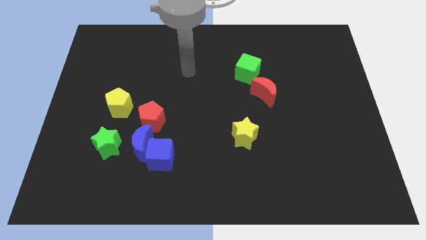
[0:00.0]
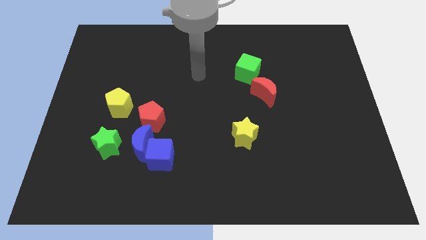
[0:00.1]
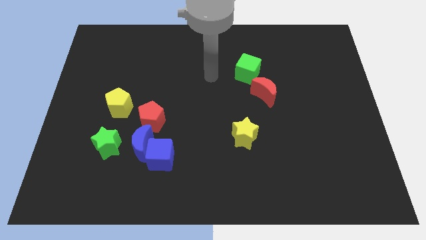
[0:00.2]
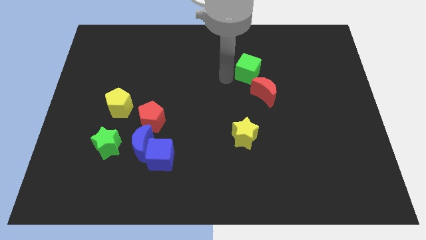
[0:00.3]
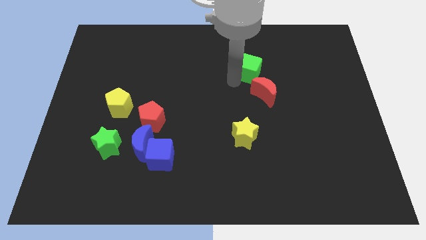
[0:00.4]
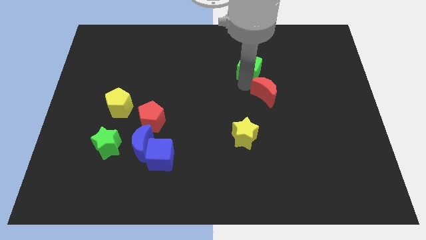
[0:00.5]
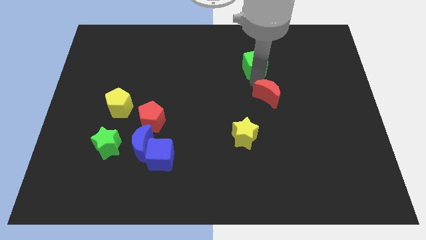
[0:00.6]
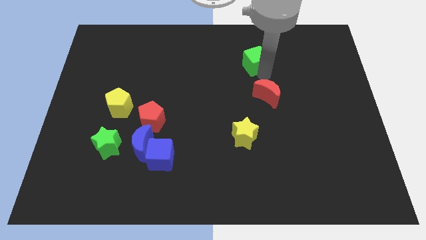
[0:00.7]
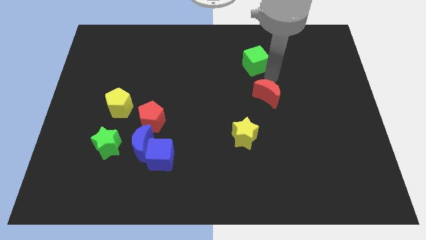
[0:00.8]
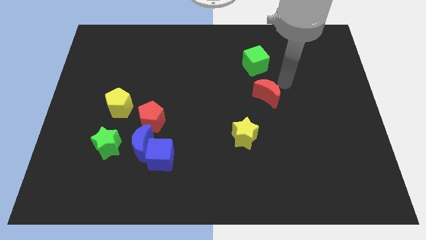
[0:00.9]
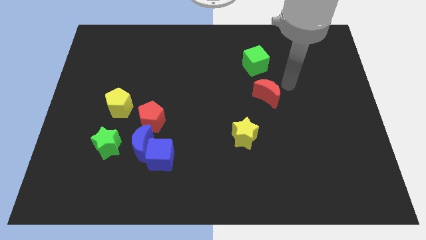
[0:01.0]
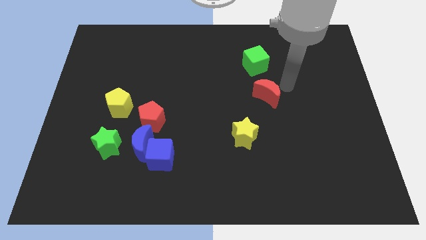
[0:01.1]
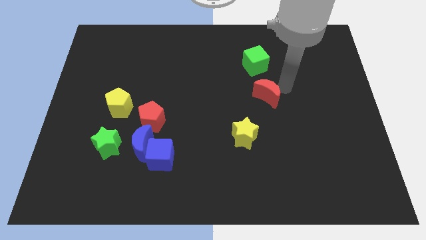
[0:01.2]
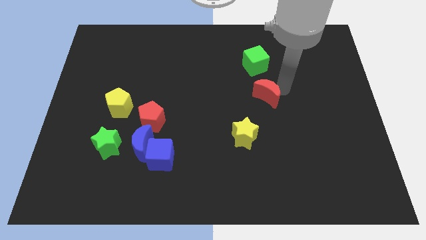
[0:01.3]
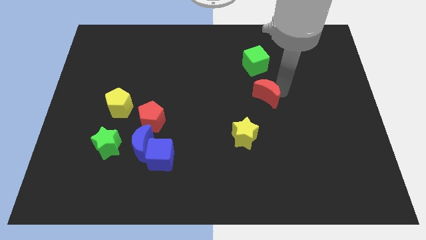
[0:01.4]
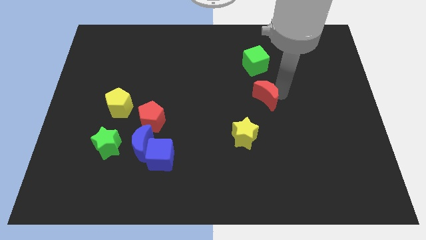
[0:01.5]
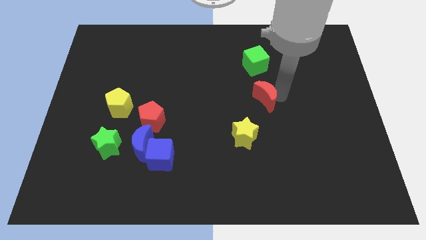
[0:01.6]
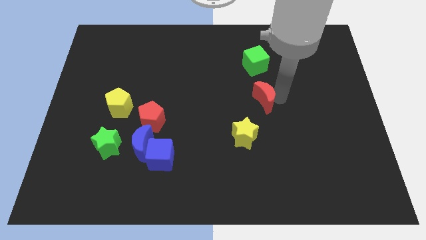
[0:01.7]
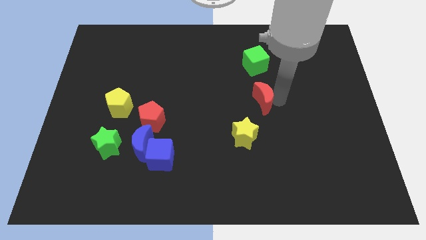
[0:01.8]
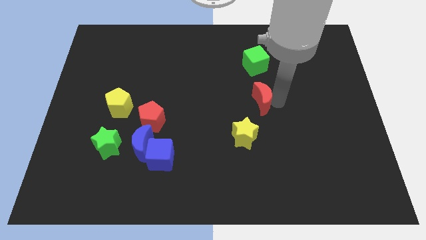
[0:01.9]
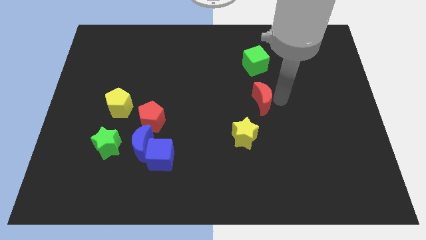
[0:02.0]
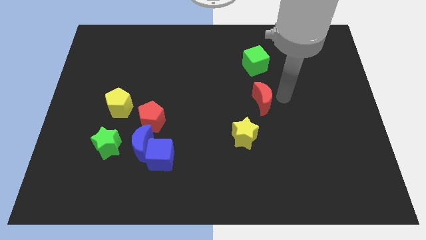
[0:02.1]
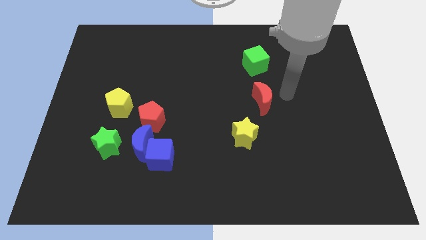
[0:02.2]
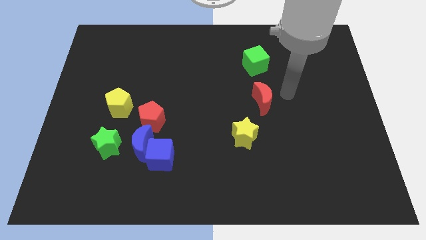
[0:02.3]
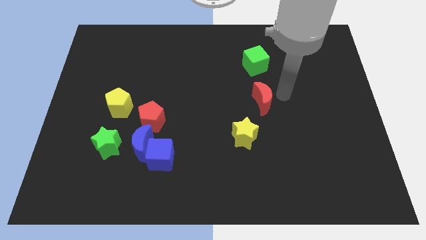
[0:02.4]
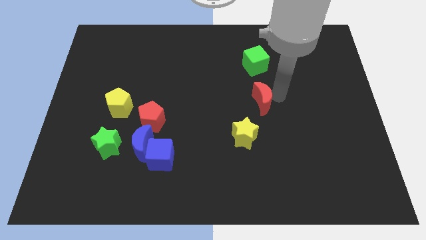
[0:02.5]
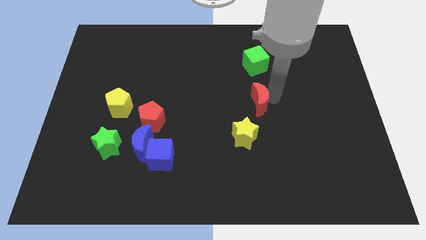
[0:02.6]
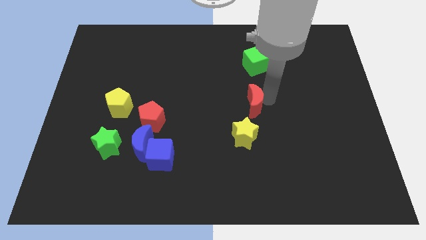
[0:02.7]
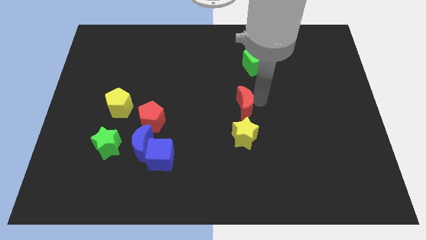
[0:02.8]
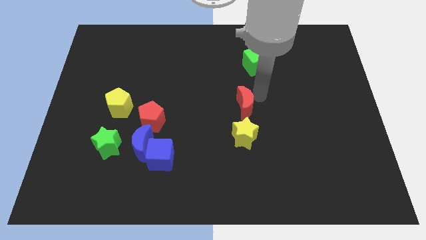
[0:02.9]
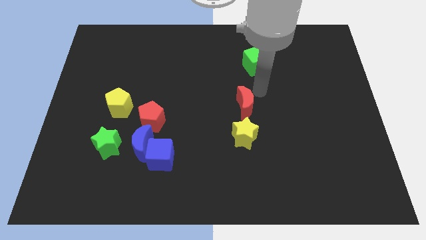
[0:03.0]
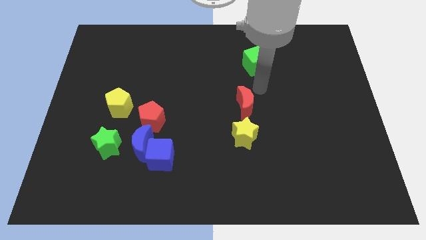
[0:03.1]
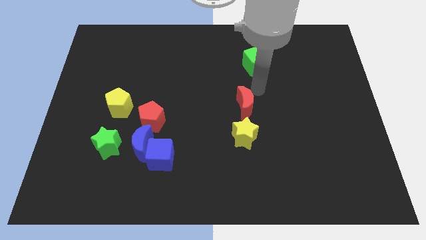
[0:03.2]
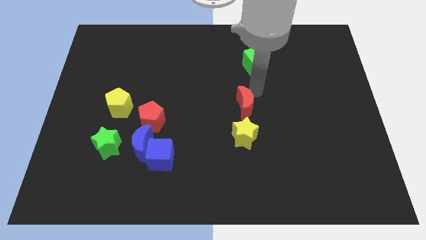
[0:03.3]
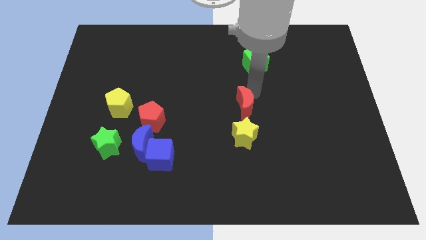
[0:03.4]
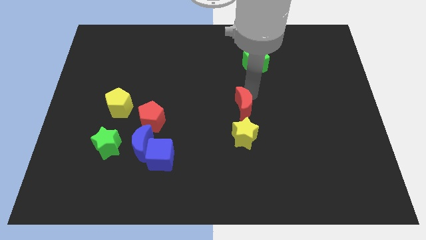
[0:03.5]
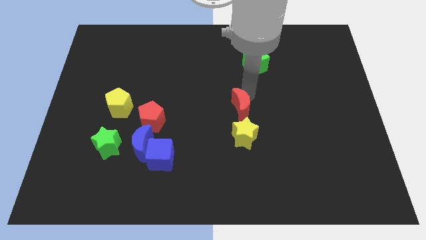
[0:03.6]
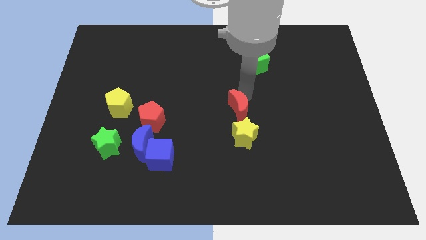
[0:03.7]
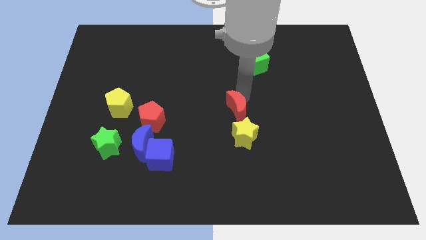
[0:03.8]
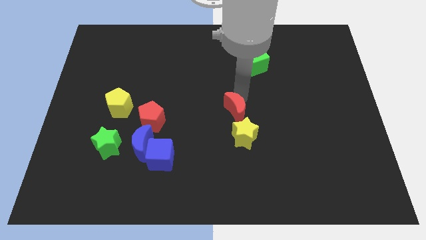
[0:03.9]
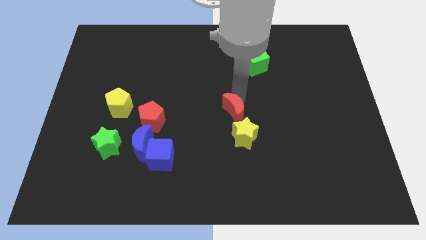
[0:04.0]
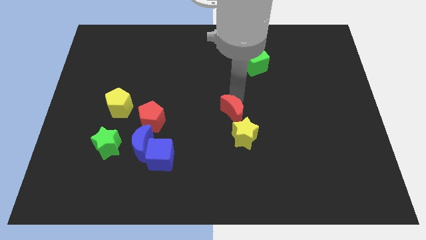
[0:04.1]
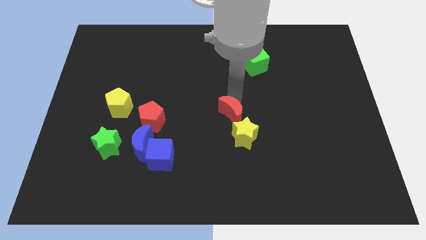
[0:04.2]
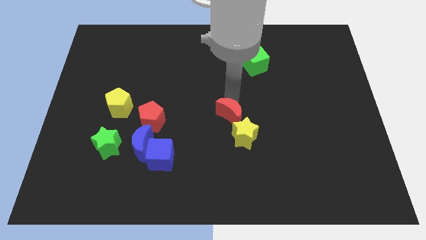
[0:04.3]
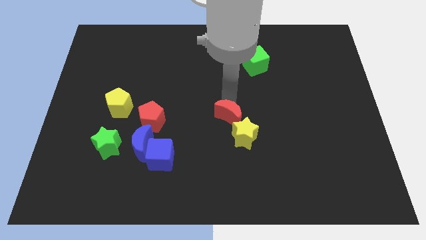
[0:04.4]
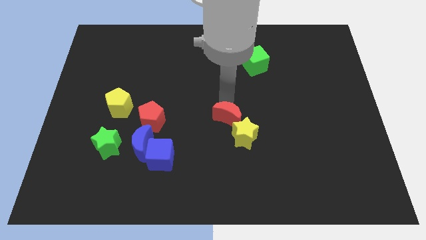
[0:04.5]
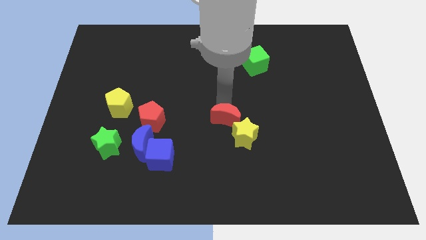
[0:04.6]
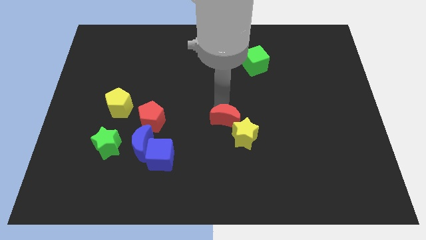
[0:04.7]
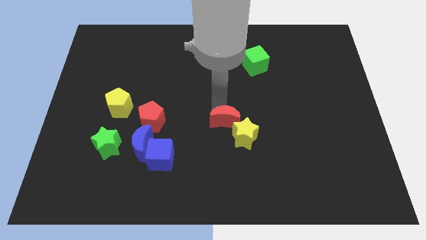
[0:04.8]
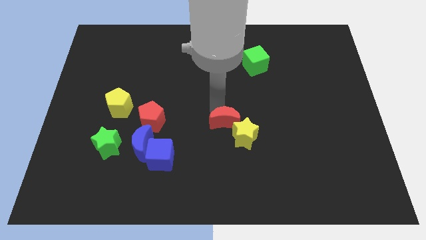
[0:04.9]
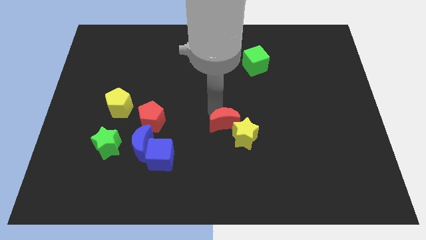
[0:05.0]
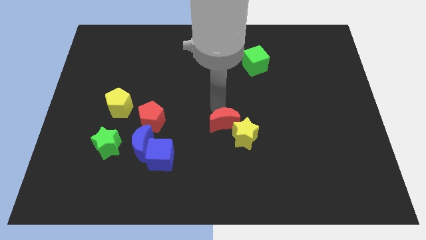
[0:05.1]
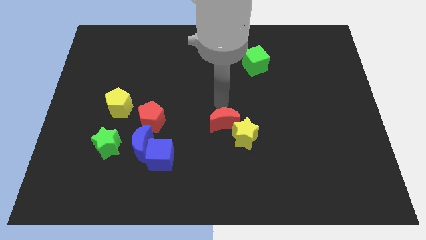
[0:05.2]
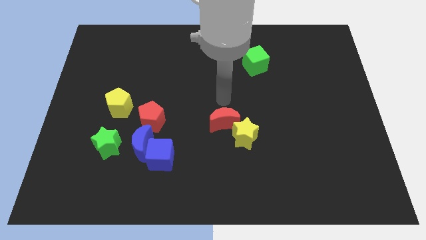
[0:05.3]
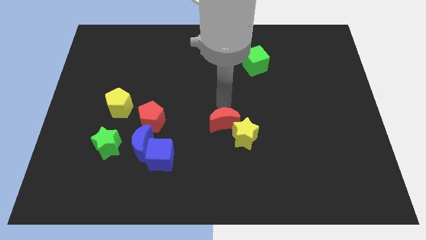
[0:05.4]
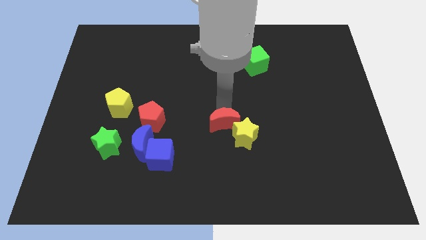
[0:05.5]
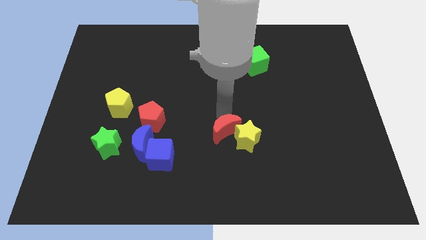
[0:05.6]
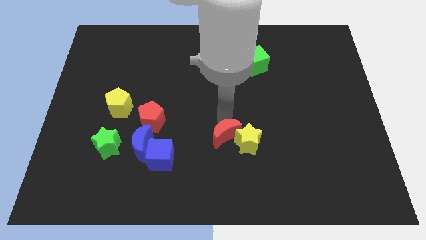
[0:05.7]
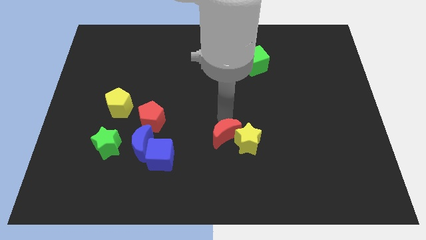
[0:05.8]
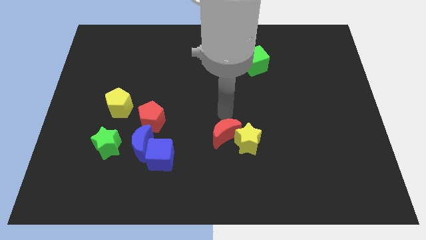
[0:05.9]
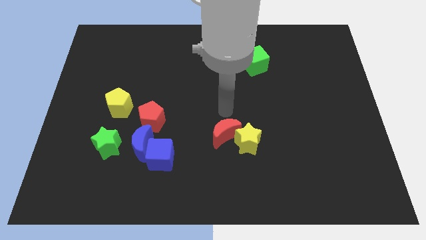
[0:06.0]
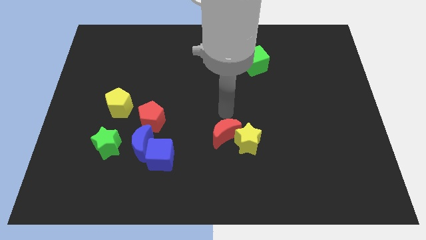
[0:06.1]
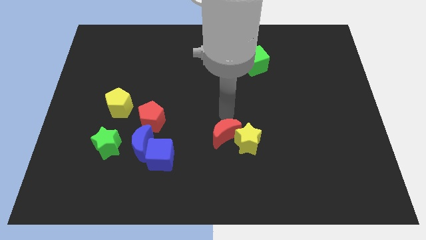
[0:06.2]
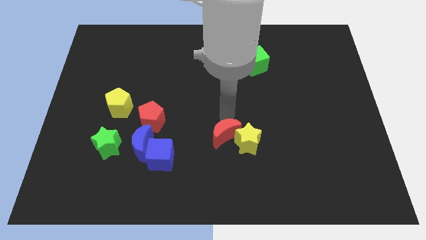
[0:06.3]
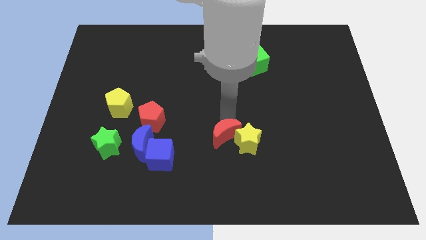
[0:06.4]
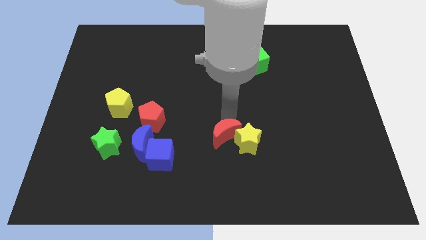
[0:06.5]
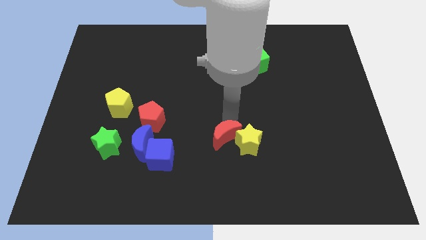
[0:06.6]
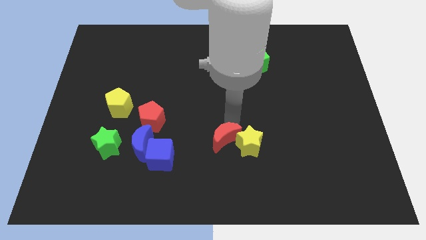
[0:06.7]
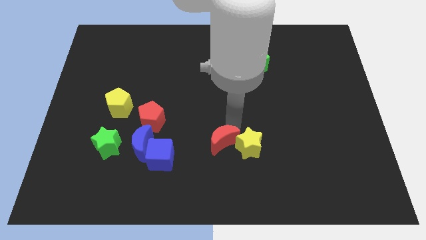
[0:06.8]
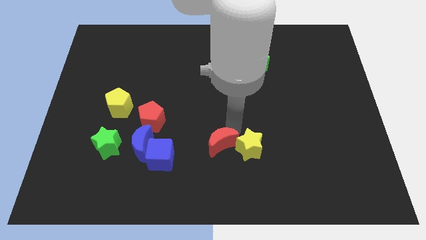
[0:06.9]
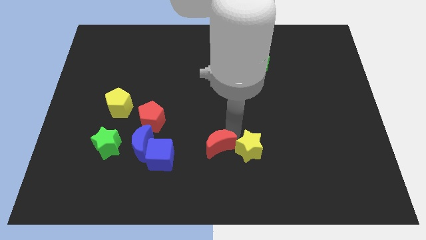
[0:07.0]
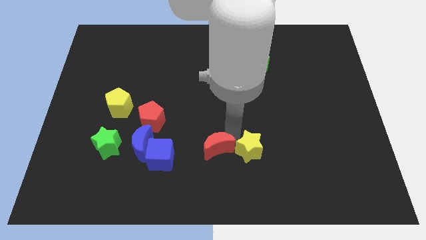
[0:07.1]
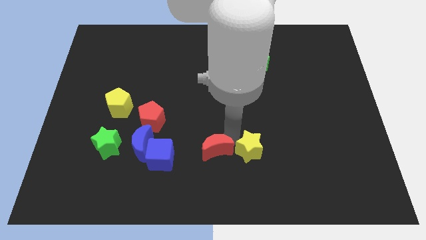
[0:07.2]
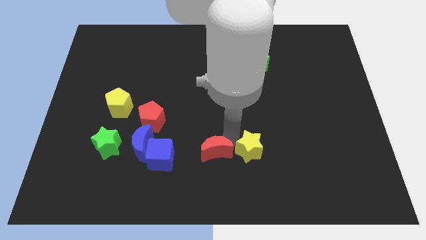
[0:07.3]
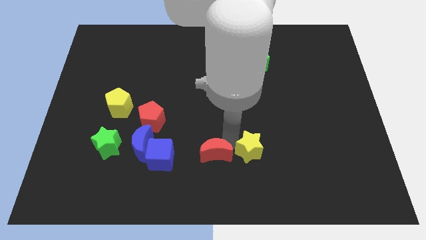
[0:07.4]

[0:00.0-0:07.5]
slide the red moon to the bottom
